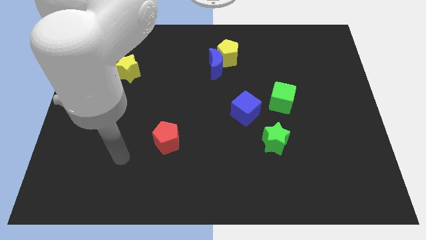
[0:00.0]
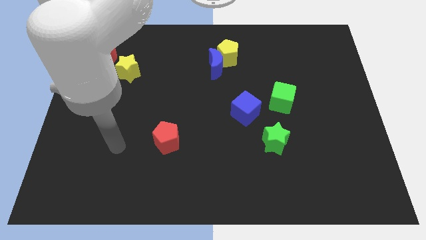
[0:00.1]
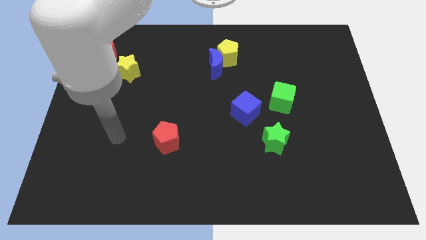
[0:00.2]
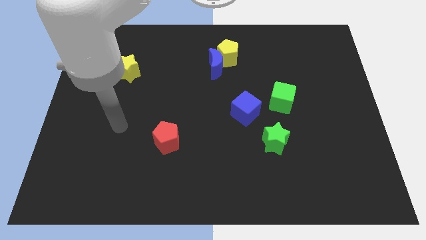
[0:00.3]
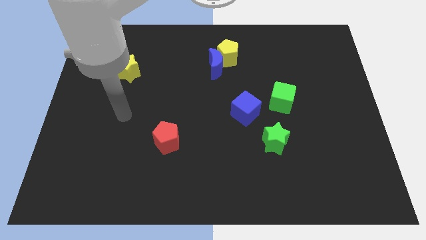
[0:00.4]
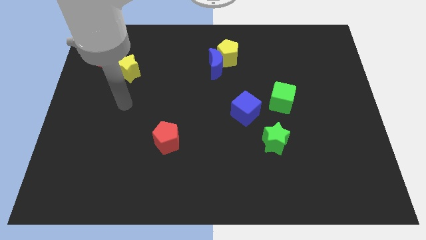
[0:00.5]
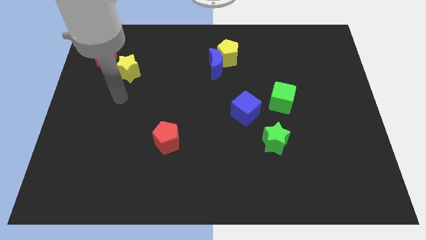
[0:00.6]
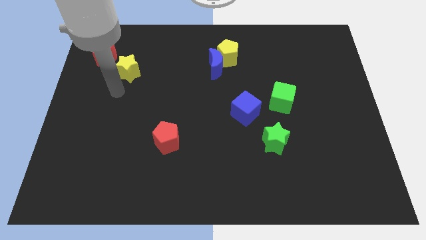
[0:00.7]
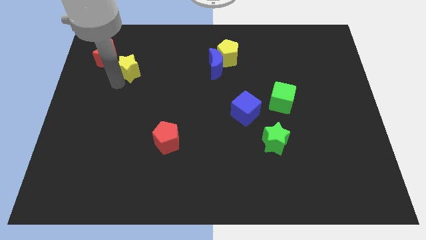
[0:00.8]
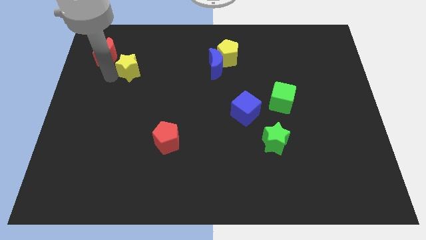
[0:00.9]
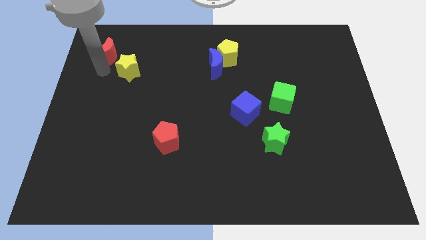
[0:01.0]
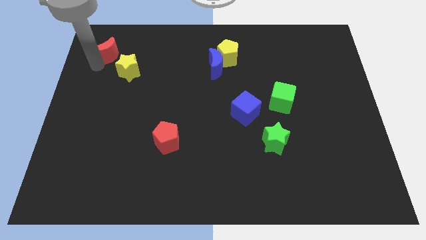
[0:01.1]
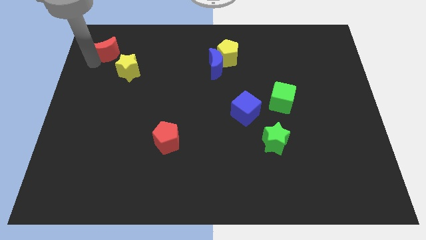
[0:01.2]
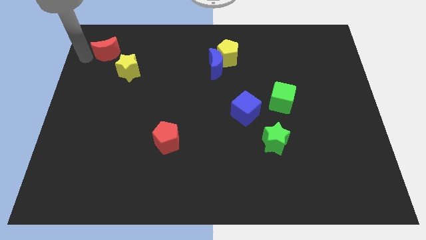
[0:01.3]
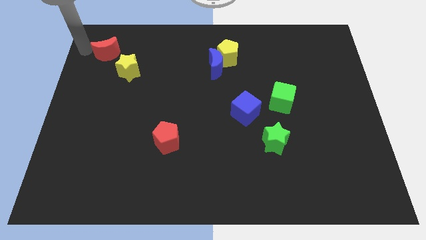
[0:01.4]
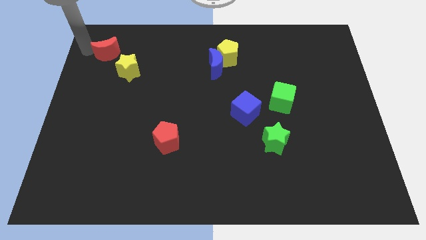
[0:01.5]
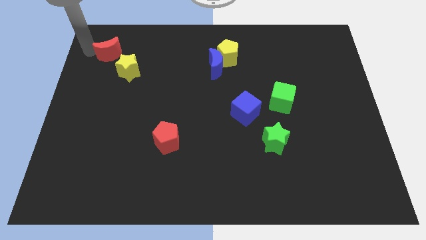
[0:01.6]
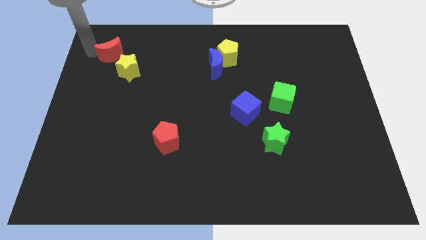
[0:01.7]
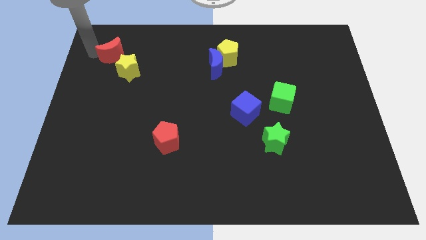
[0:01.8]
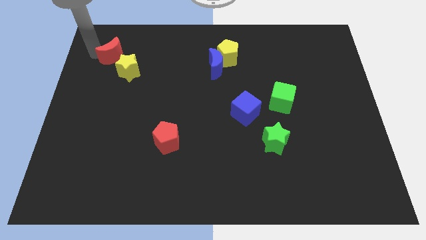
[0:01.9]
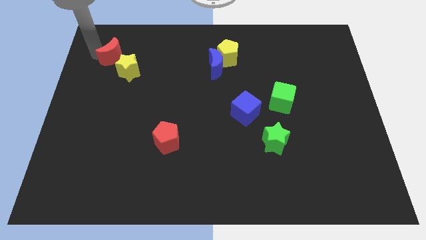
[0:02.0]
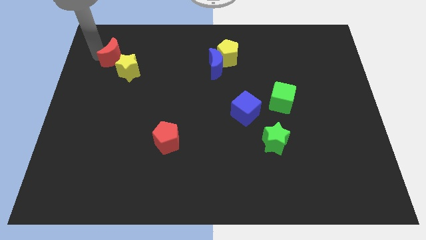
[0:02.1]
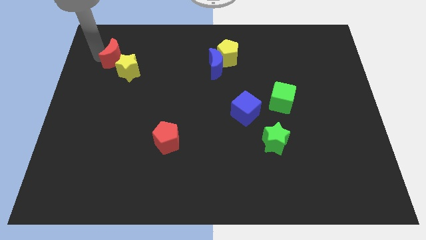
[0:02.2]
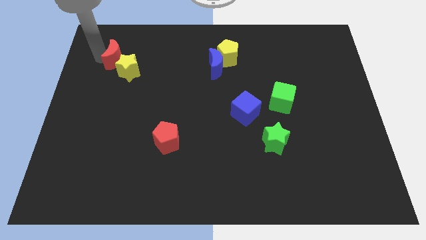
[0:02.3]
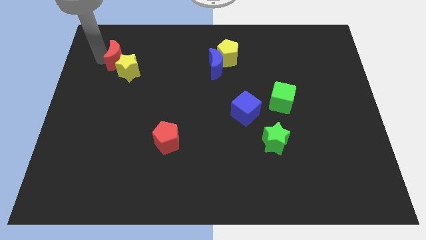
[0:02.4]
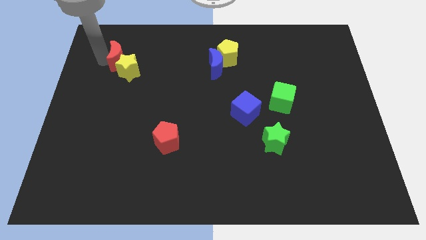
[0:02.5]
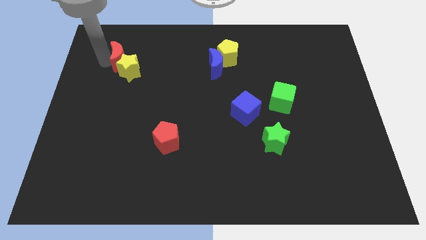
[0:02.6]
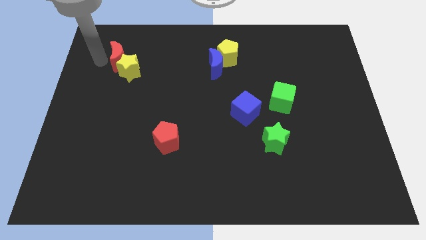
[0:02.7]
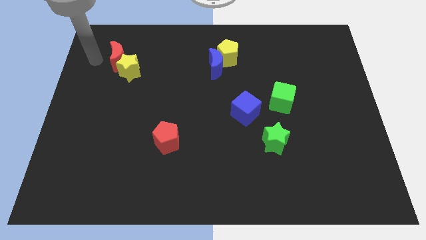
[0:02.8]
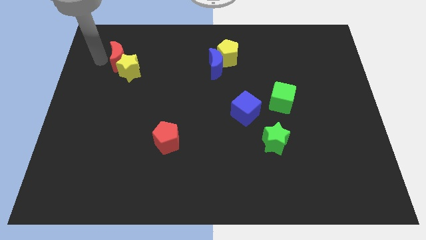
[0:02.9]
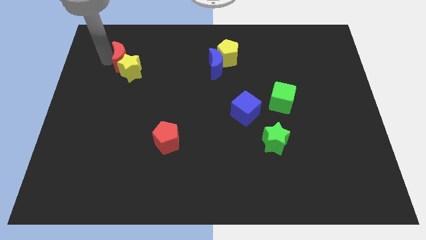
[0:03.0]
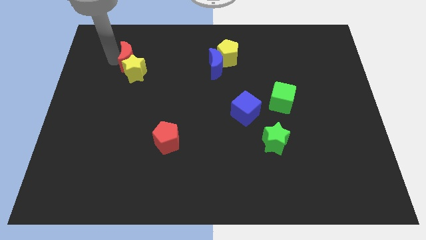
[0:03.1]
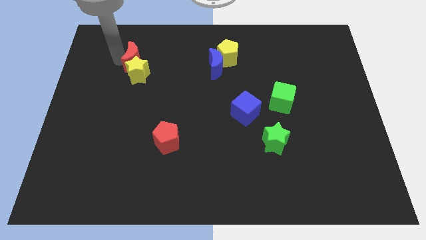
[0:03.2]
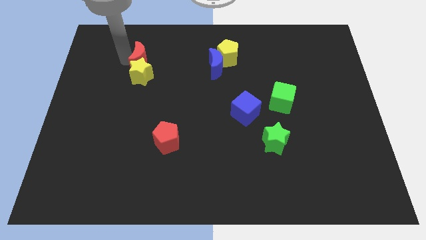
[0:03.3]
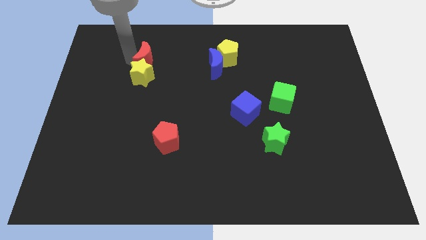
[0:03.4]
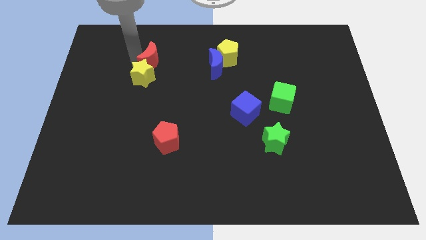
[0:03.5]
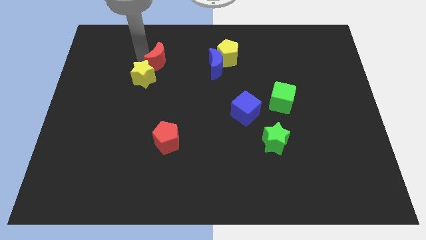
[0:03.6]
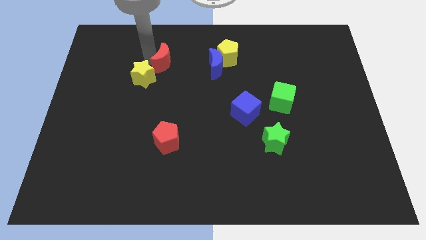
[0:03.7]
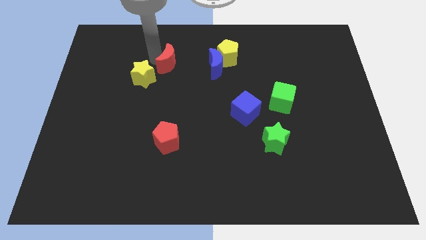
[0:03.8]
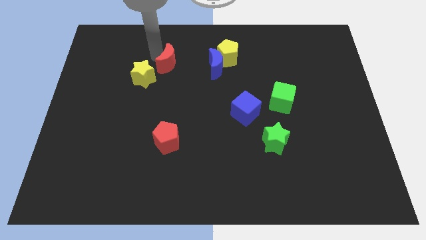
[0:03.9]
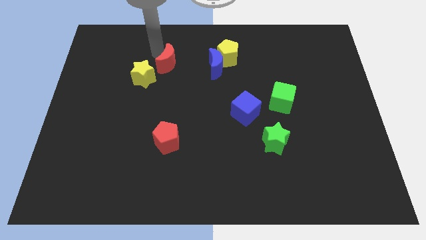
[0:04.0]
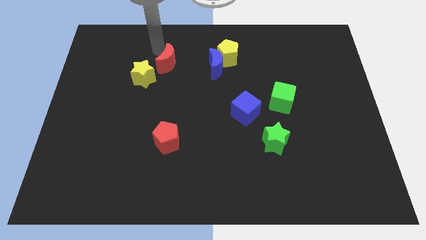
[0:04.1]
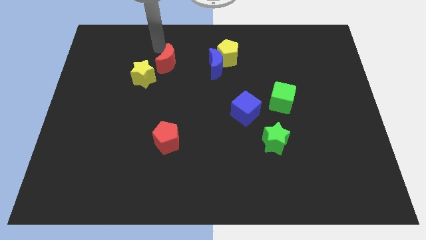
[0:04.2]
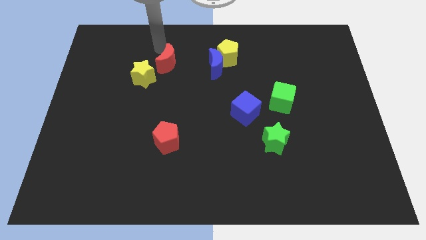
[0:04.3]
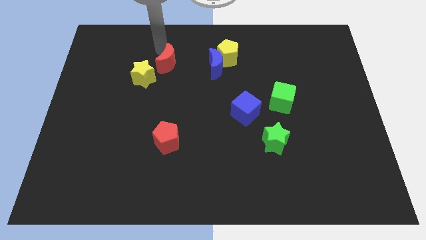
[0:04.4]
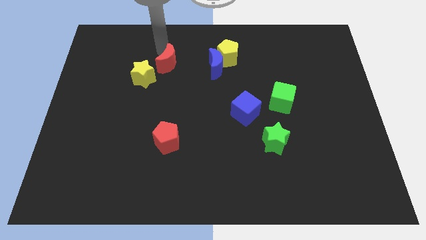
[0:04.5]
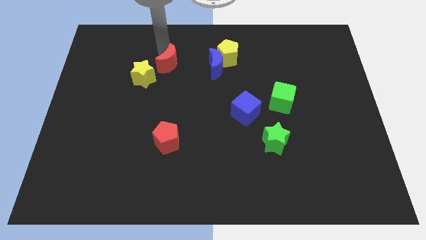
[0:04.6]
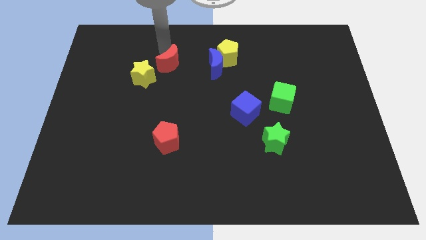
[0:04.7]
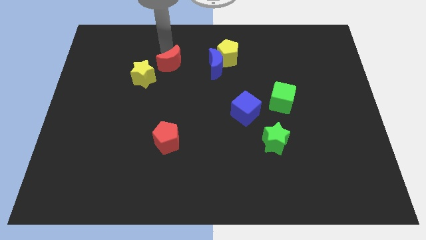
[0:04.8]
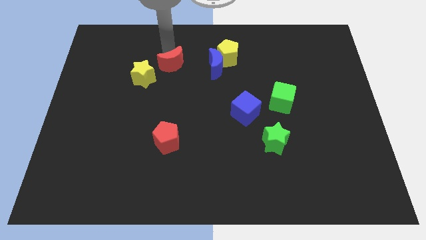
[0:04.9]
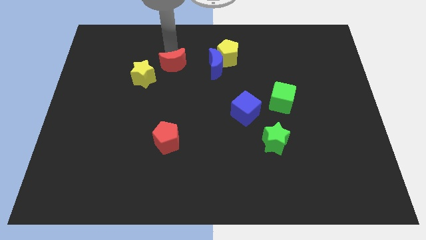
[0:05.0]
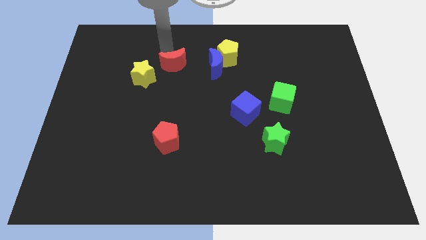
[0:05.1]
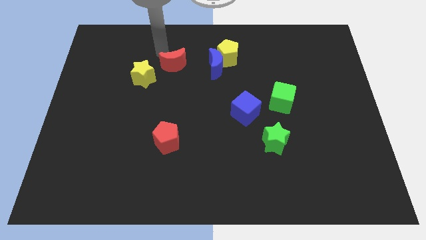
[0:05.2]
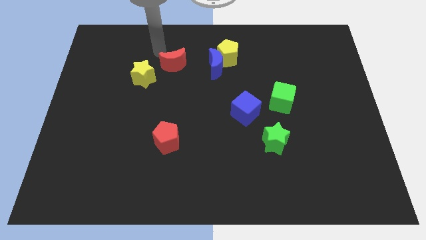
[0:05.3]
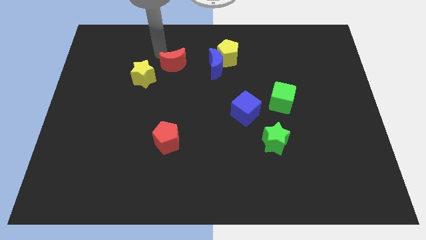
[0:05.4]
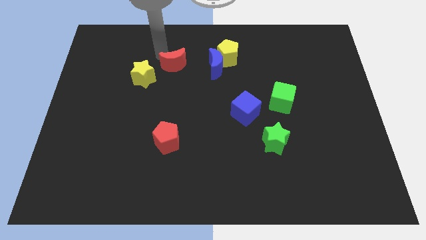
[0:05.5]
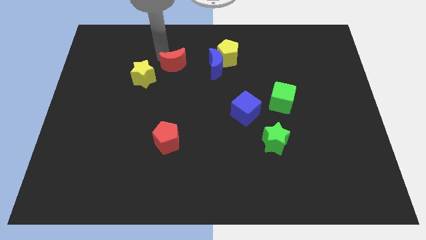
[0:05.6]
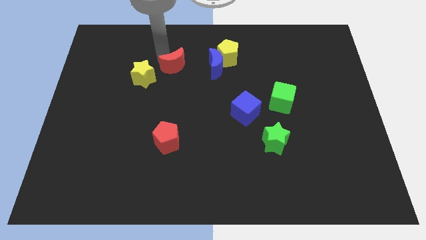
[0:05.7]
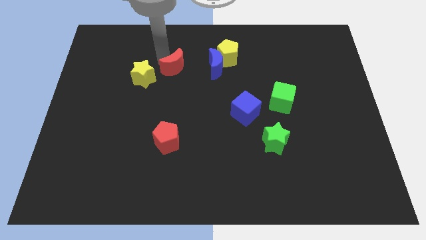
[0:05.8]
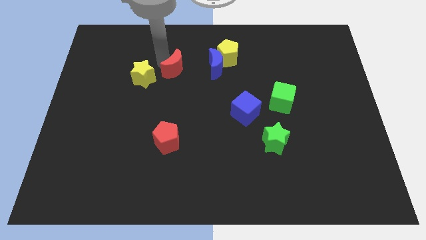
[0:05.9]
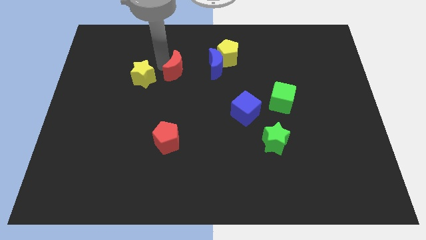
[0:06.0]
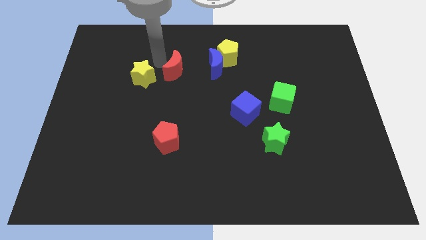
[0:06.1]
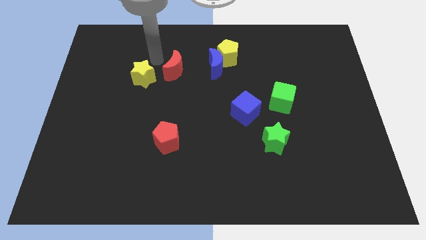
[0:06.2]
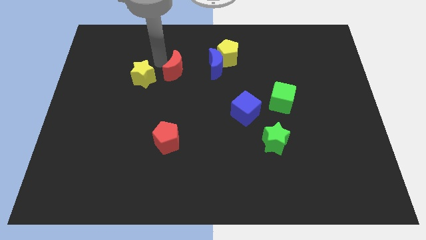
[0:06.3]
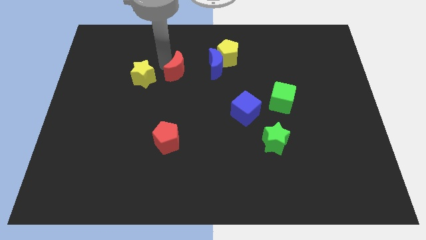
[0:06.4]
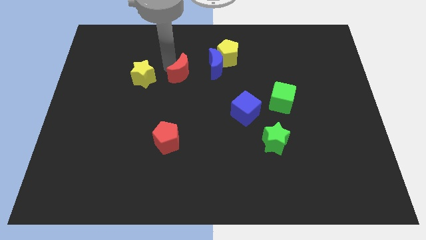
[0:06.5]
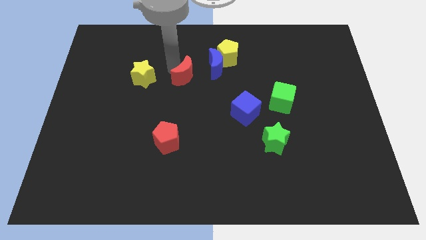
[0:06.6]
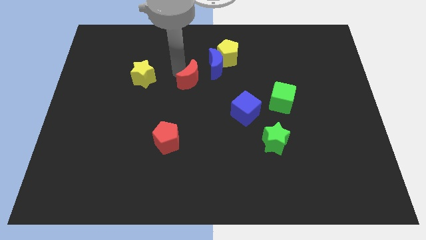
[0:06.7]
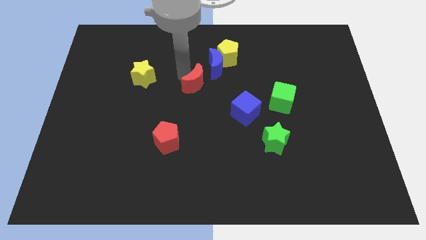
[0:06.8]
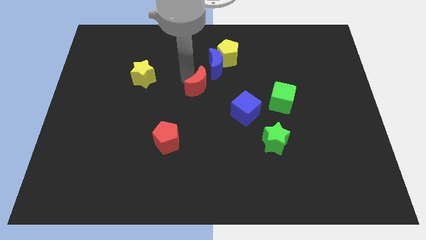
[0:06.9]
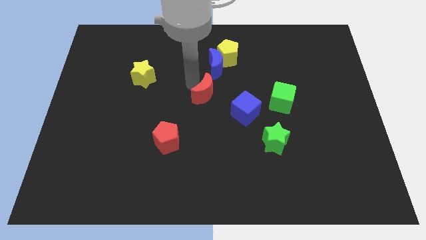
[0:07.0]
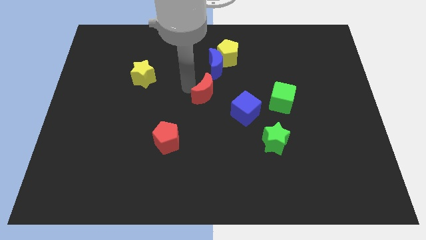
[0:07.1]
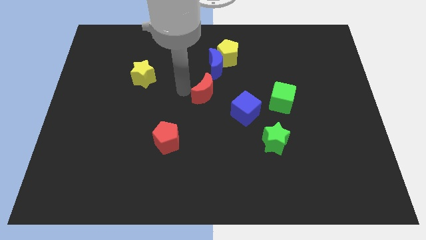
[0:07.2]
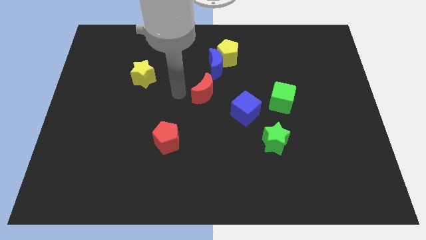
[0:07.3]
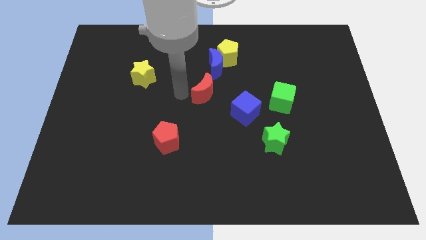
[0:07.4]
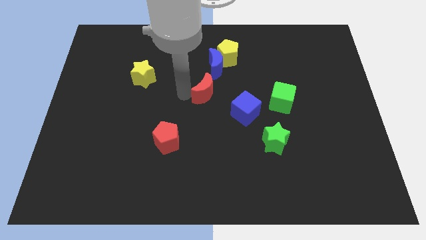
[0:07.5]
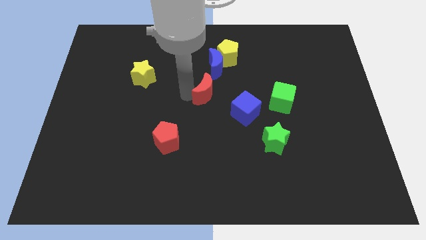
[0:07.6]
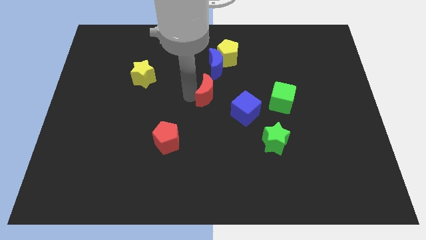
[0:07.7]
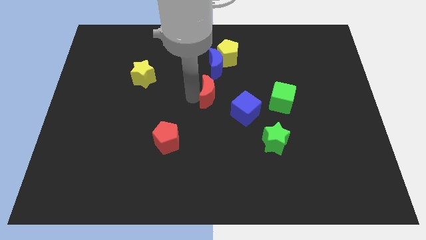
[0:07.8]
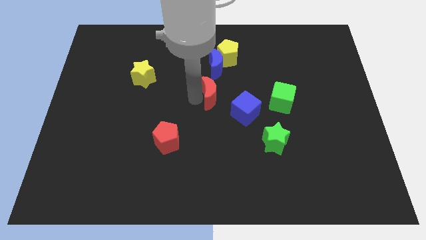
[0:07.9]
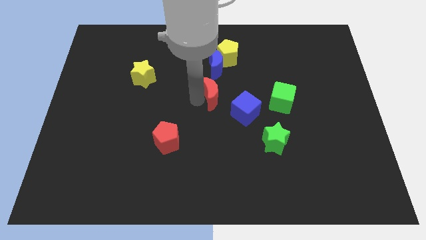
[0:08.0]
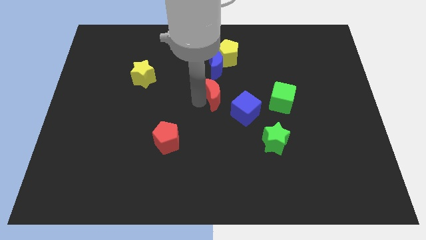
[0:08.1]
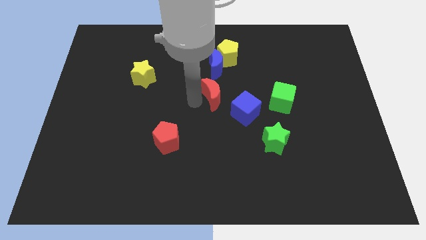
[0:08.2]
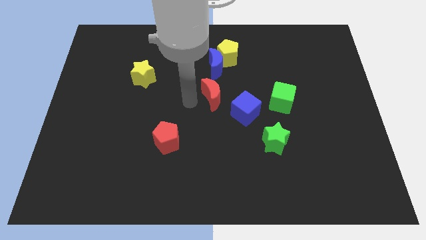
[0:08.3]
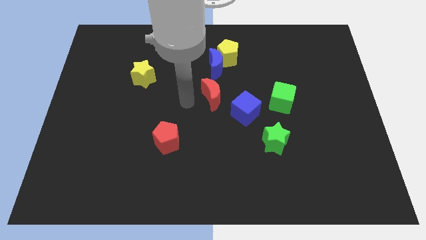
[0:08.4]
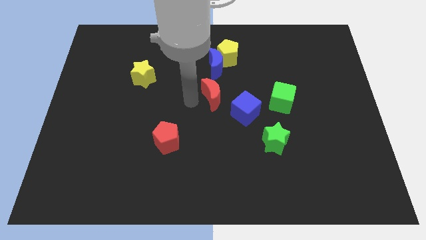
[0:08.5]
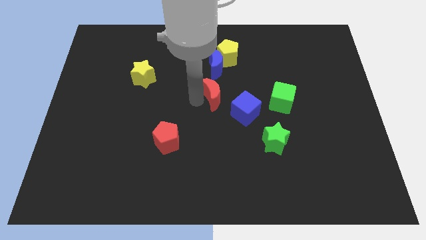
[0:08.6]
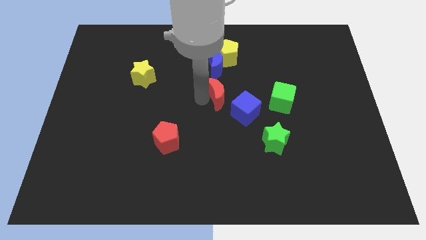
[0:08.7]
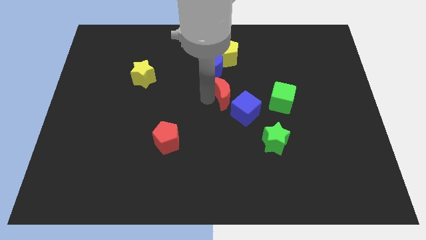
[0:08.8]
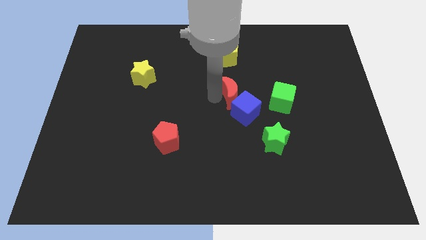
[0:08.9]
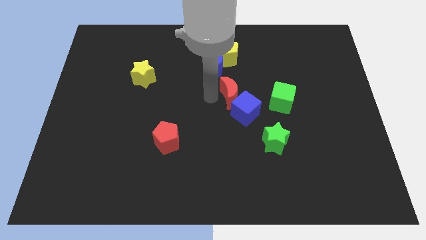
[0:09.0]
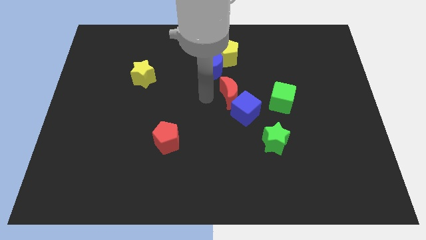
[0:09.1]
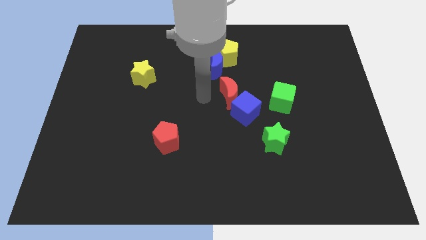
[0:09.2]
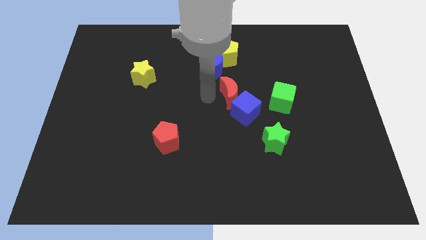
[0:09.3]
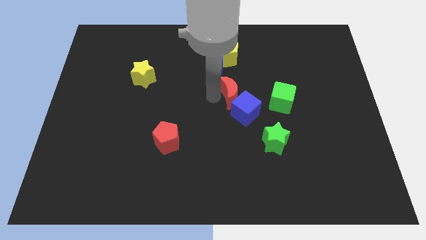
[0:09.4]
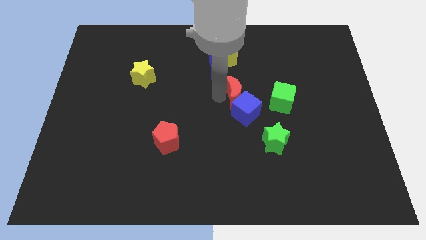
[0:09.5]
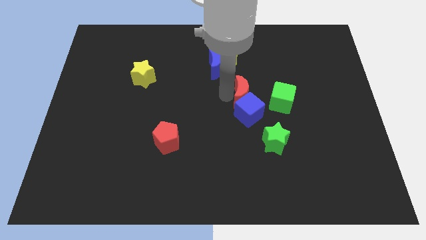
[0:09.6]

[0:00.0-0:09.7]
slide the red moon to the top right of the blue cube
